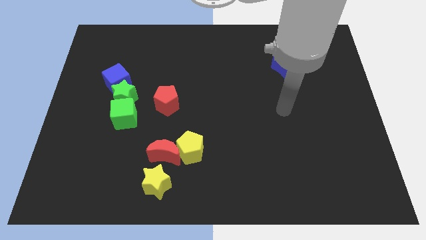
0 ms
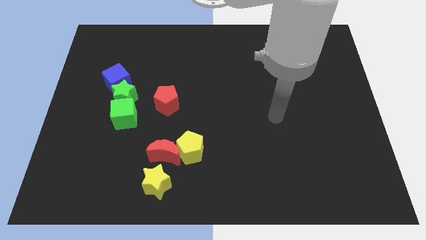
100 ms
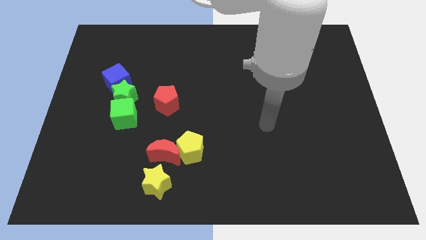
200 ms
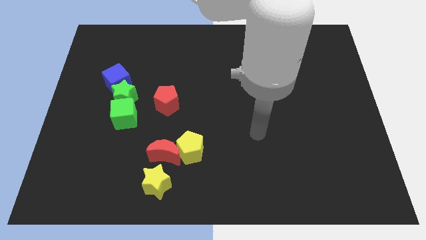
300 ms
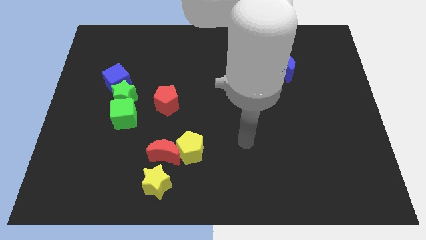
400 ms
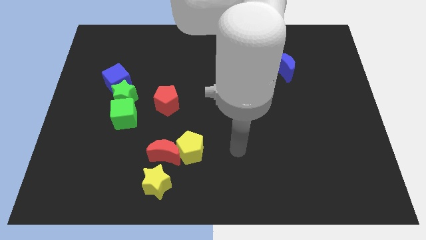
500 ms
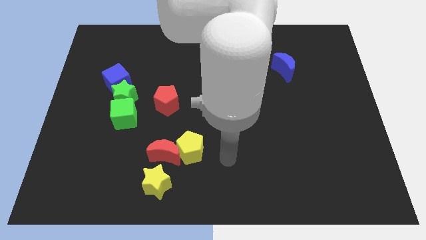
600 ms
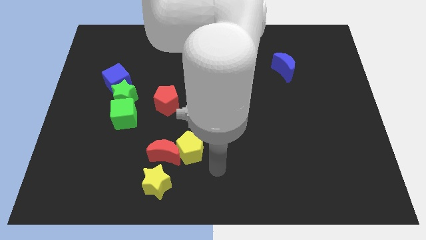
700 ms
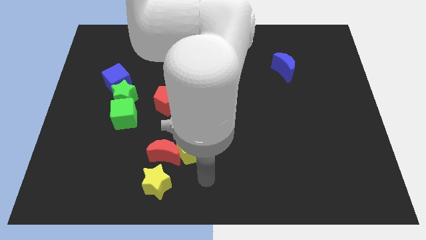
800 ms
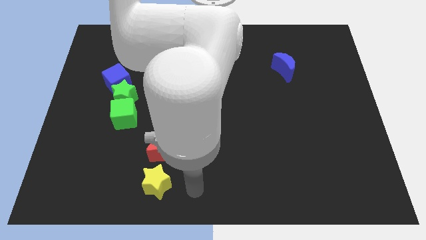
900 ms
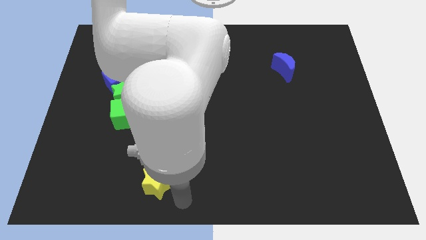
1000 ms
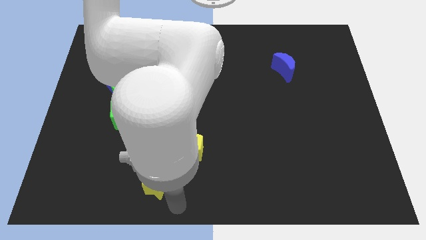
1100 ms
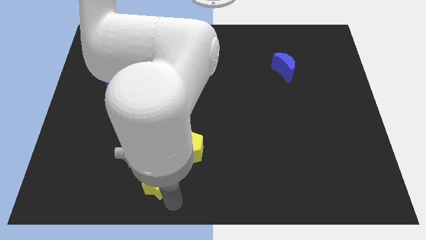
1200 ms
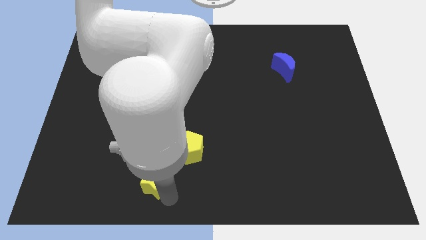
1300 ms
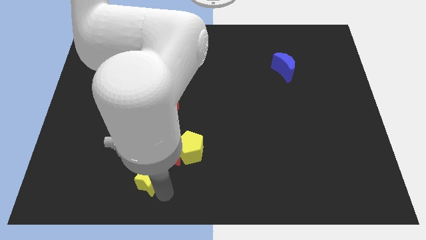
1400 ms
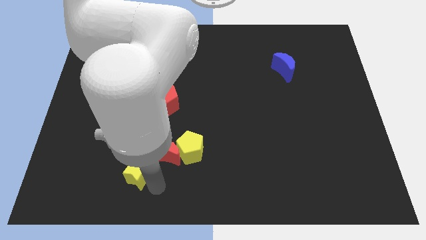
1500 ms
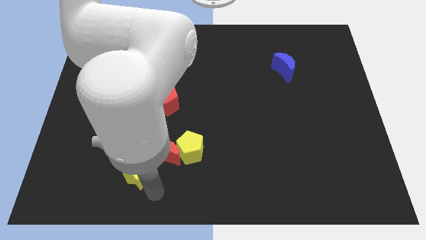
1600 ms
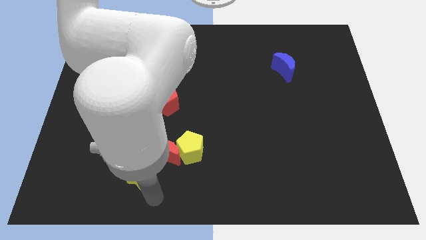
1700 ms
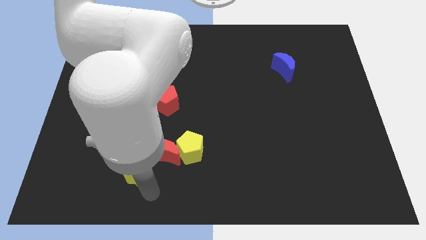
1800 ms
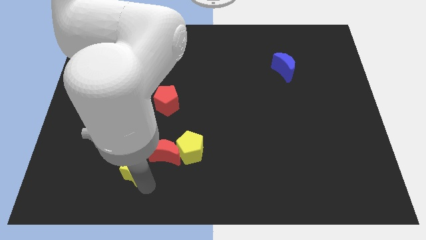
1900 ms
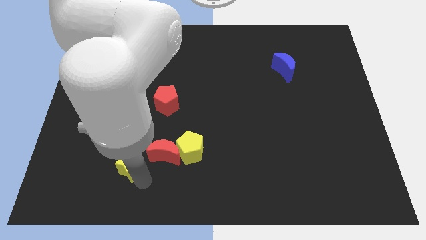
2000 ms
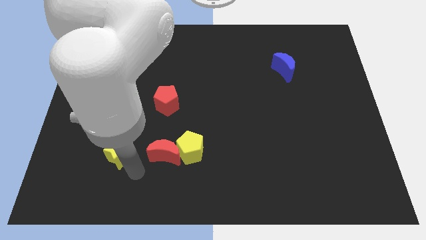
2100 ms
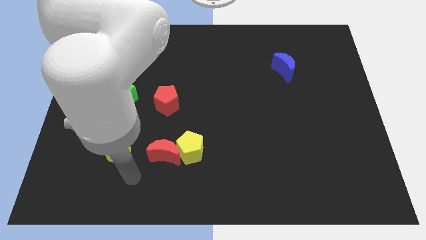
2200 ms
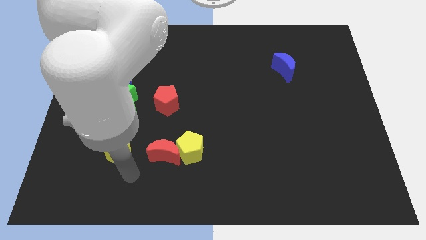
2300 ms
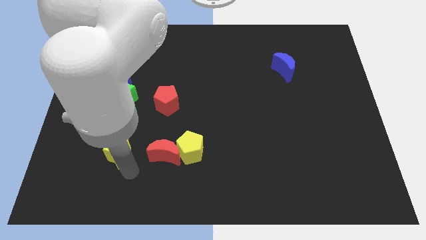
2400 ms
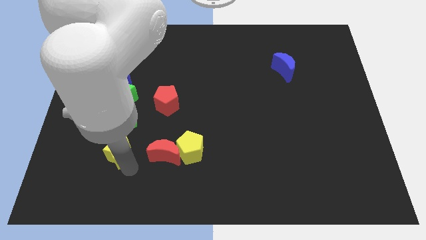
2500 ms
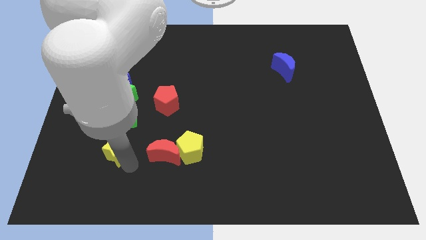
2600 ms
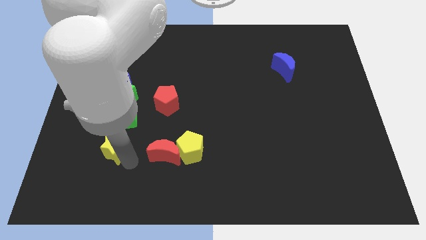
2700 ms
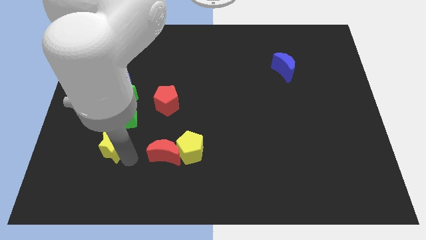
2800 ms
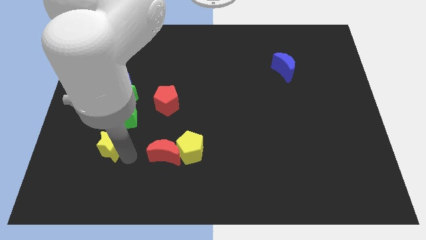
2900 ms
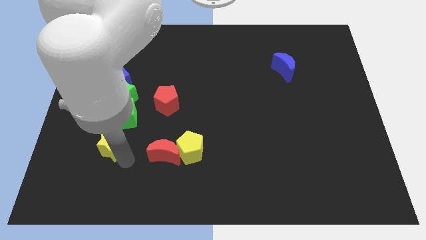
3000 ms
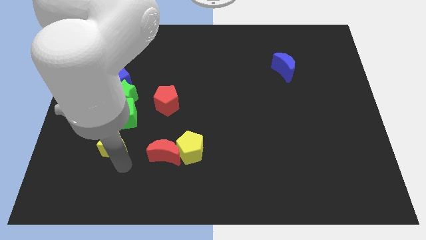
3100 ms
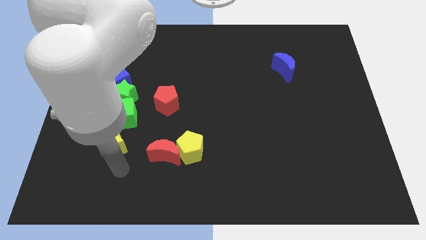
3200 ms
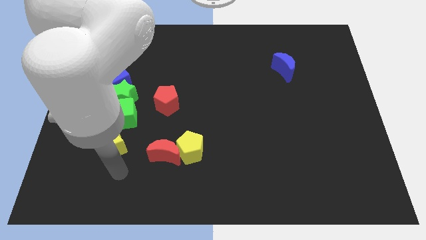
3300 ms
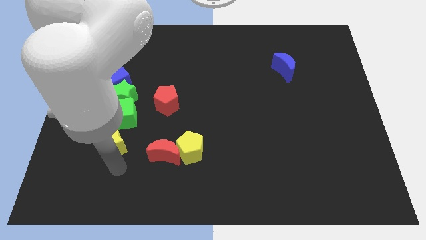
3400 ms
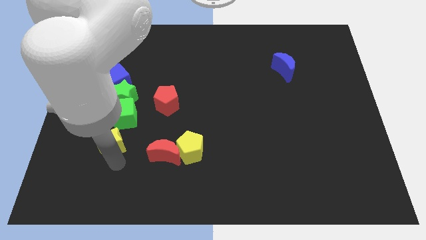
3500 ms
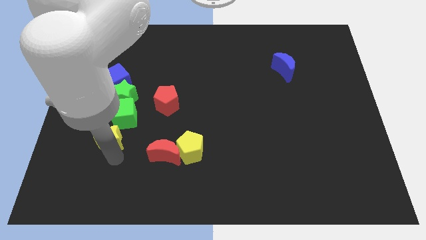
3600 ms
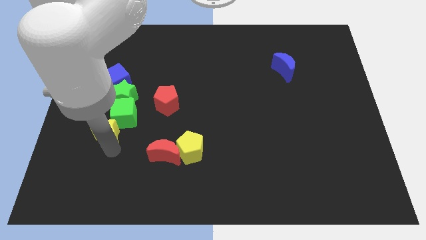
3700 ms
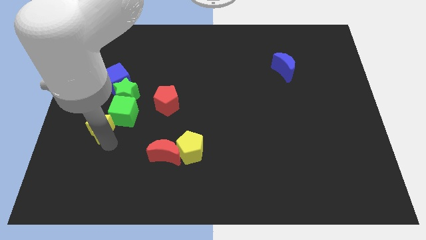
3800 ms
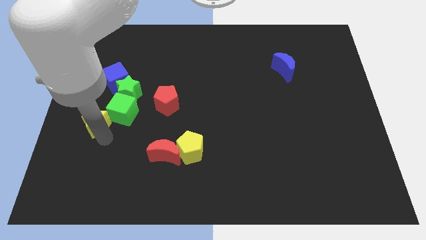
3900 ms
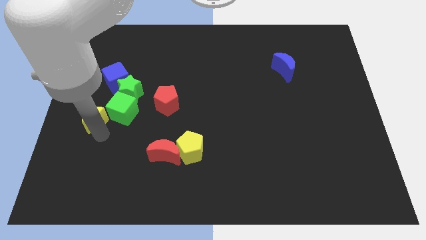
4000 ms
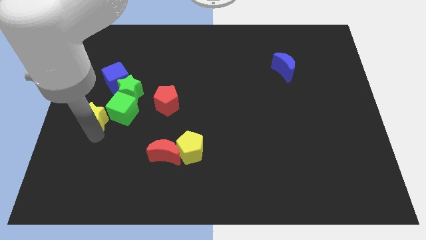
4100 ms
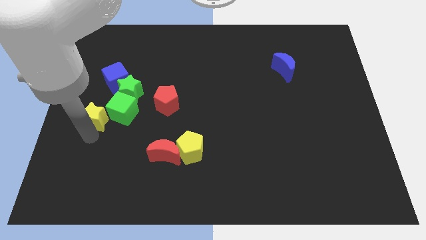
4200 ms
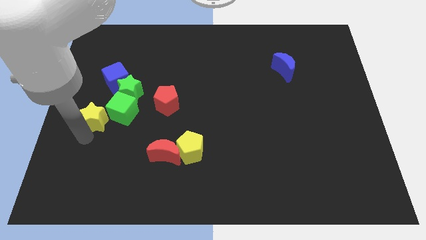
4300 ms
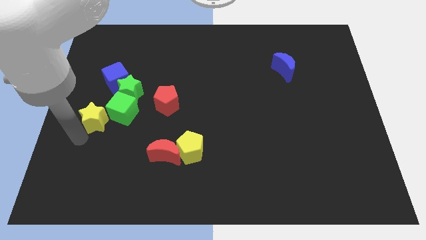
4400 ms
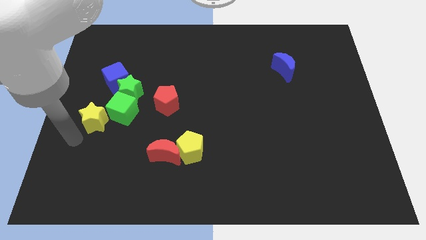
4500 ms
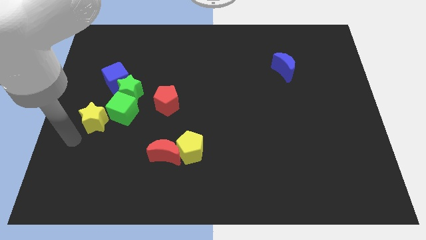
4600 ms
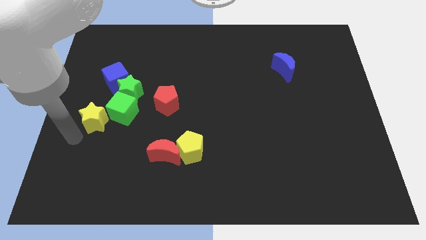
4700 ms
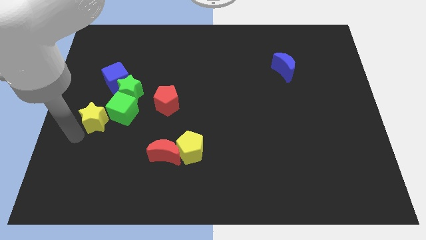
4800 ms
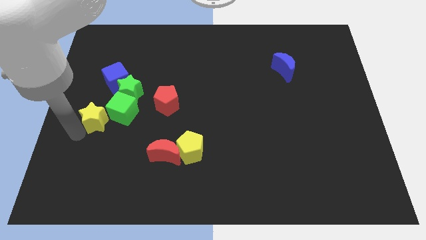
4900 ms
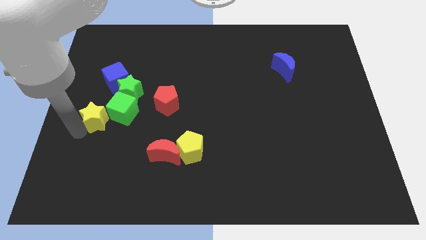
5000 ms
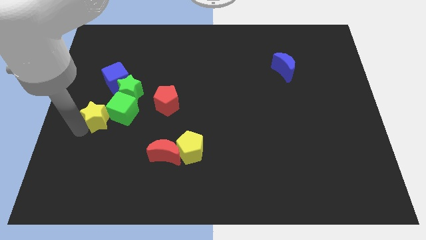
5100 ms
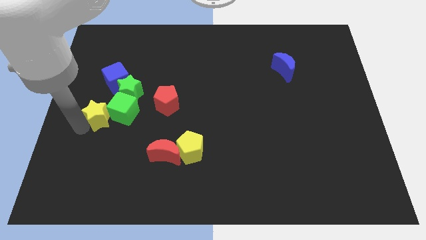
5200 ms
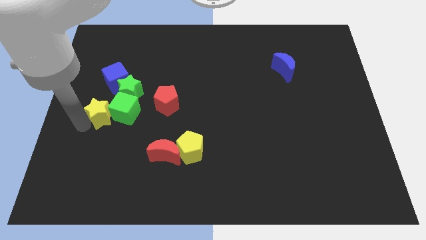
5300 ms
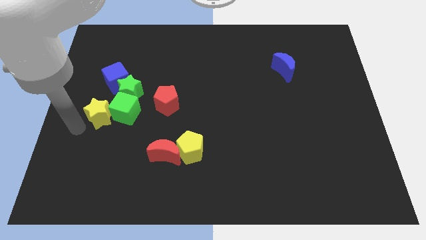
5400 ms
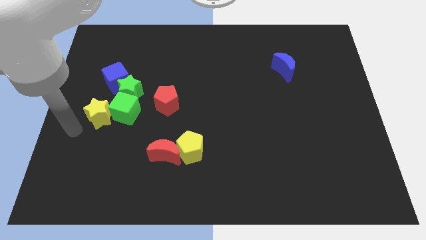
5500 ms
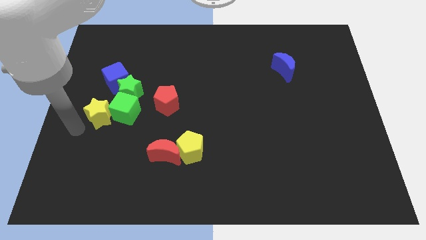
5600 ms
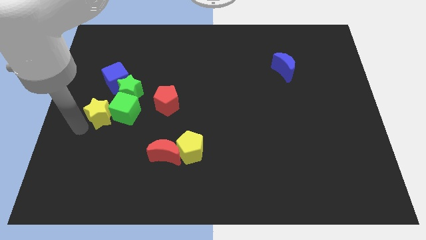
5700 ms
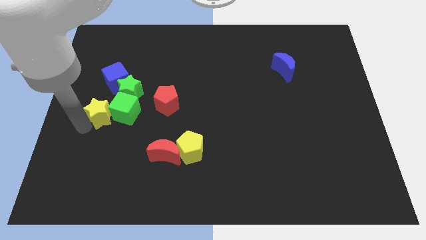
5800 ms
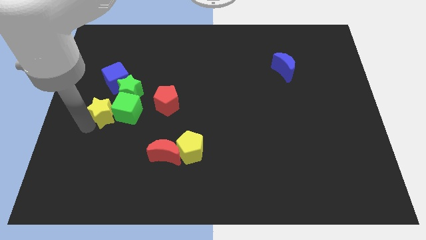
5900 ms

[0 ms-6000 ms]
put the yellow star to the left of the red pentagon

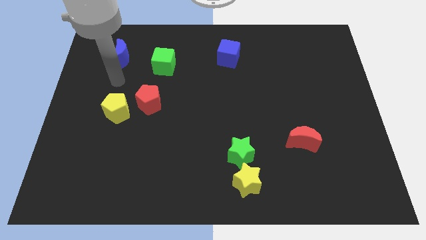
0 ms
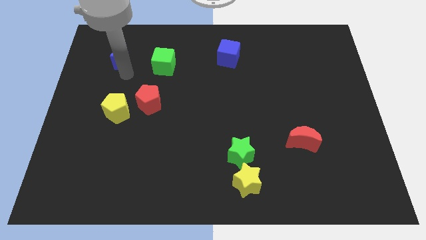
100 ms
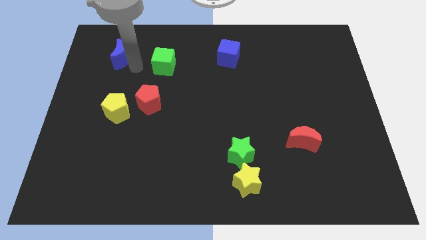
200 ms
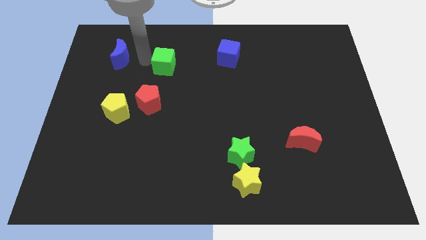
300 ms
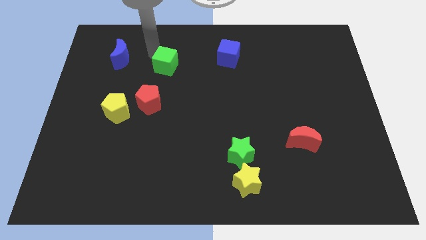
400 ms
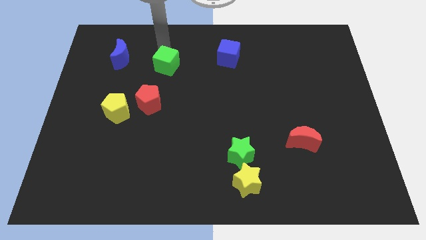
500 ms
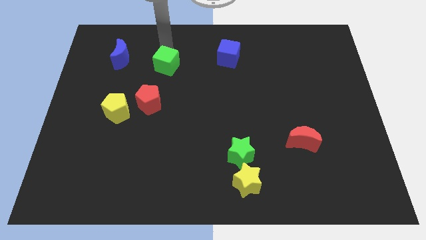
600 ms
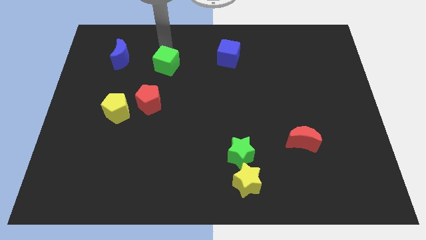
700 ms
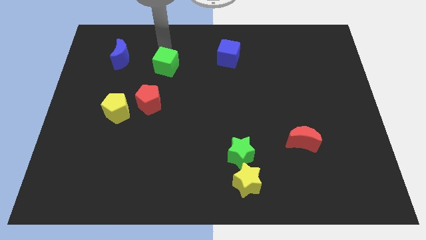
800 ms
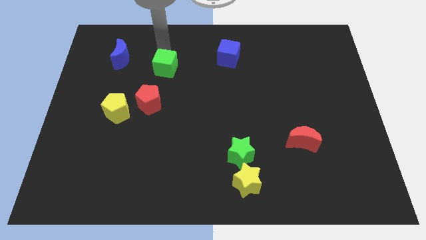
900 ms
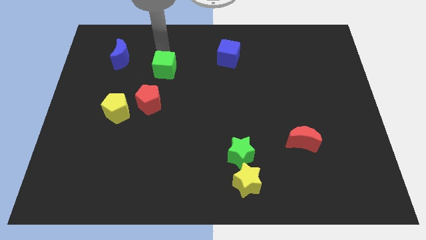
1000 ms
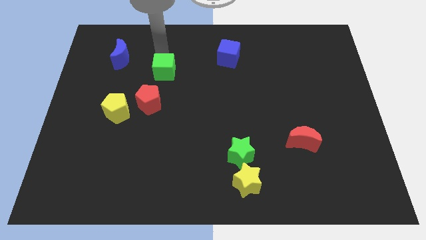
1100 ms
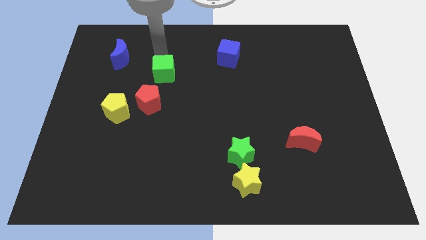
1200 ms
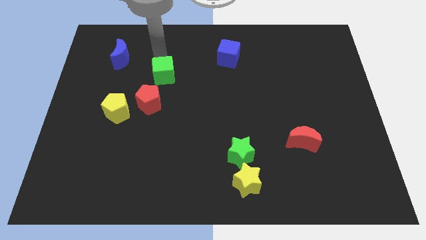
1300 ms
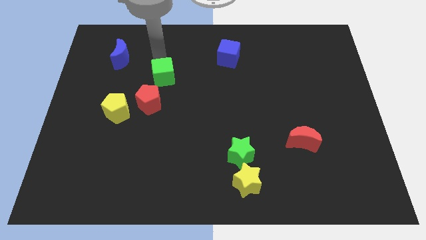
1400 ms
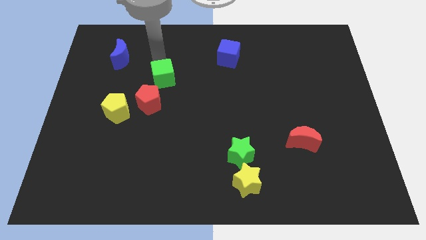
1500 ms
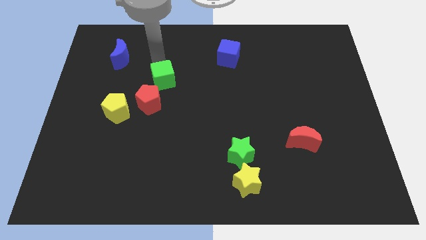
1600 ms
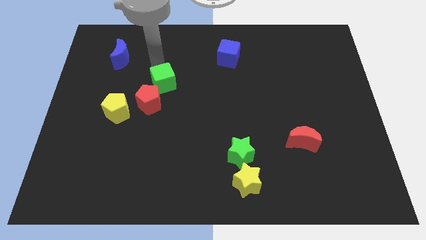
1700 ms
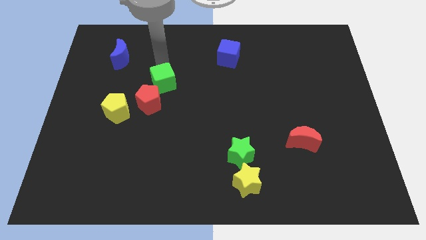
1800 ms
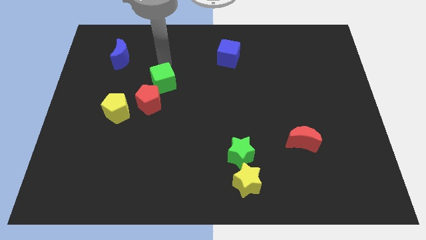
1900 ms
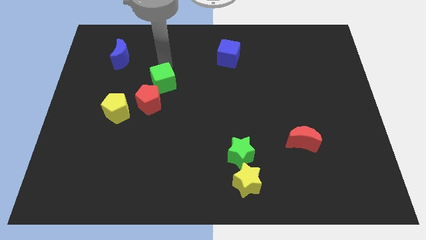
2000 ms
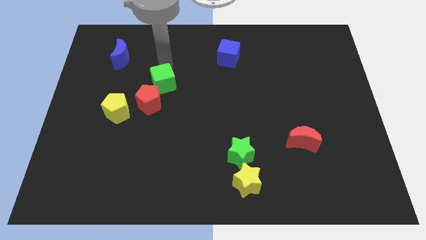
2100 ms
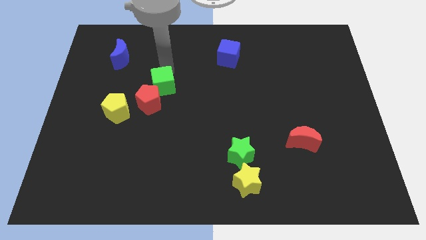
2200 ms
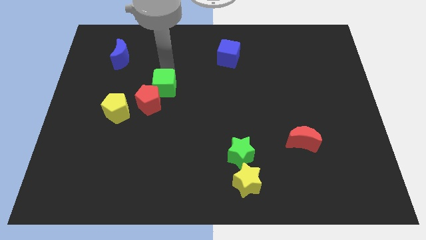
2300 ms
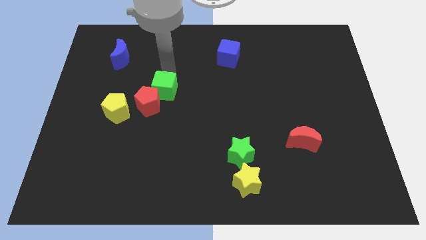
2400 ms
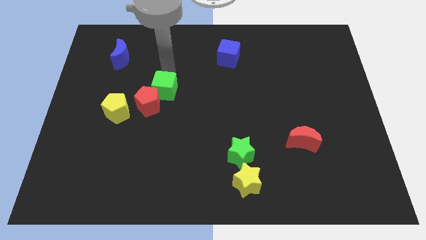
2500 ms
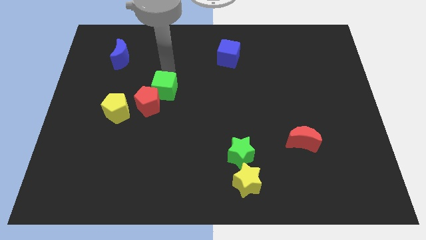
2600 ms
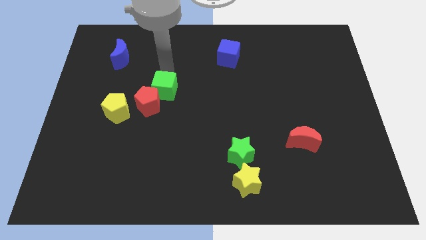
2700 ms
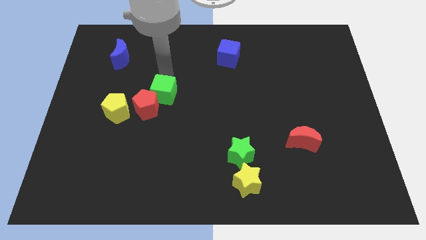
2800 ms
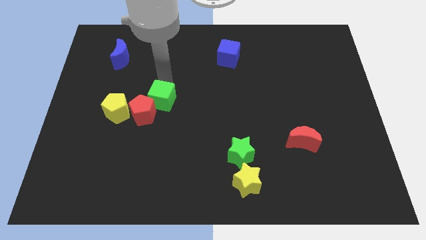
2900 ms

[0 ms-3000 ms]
slide the green cube just right of the yellow pentagon
